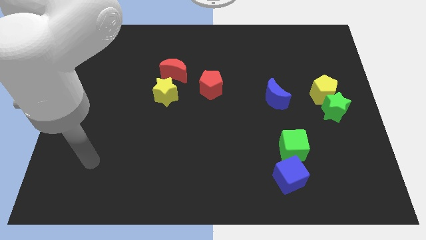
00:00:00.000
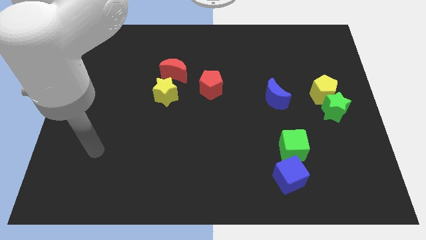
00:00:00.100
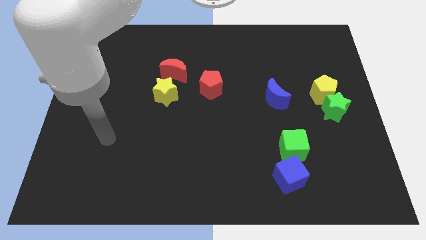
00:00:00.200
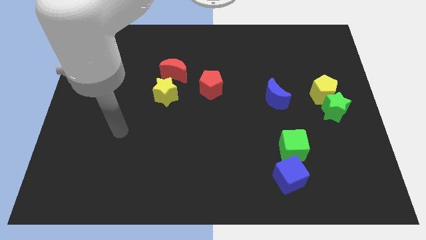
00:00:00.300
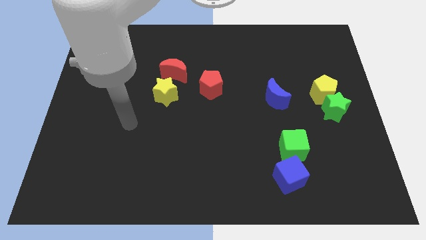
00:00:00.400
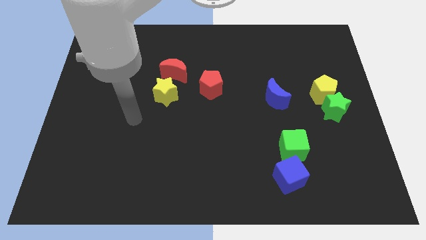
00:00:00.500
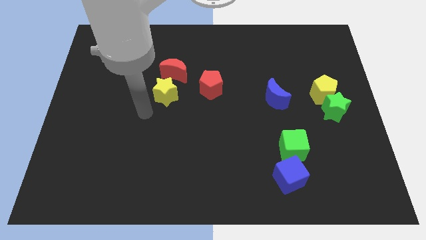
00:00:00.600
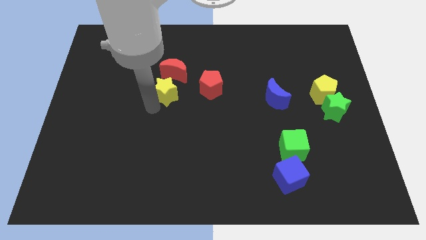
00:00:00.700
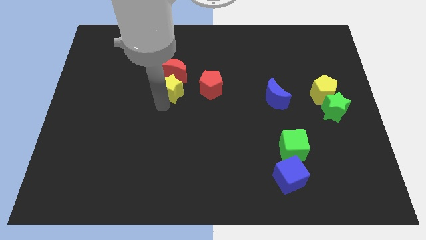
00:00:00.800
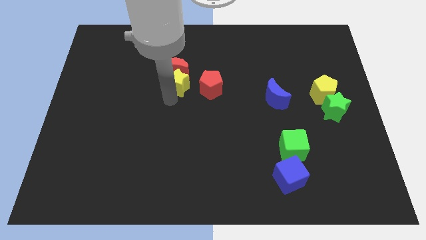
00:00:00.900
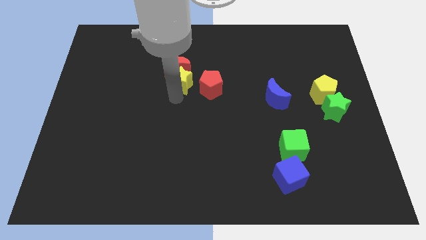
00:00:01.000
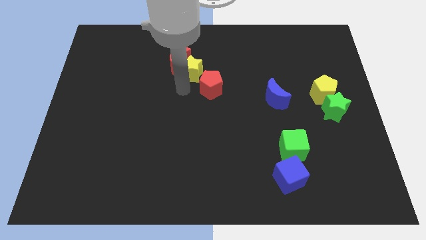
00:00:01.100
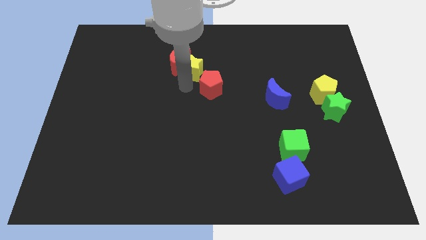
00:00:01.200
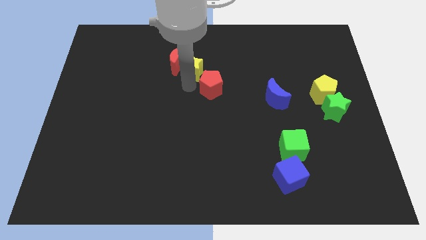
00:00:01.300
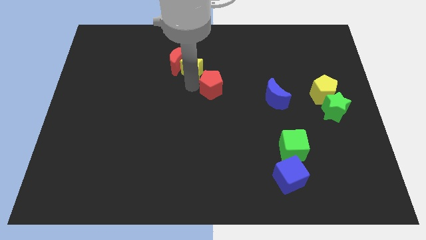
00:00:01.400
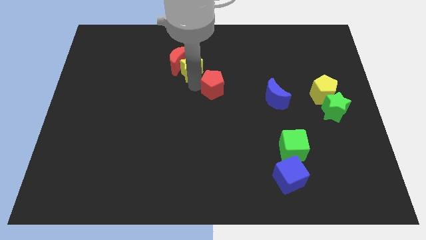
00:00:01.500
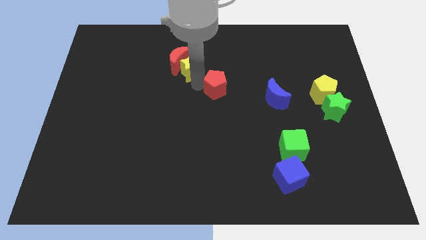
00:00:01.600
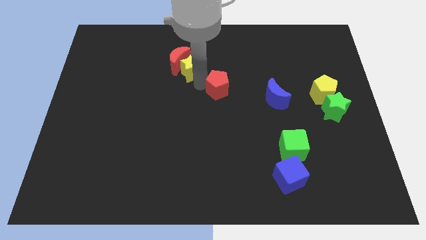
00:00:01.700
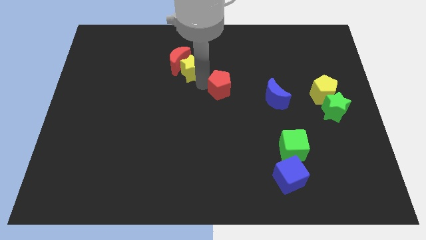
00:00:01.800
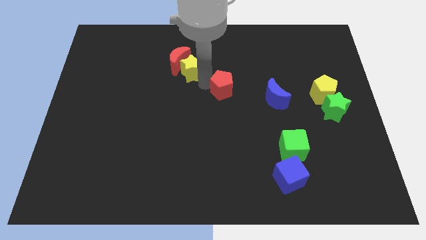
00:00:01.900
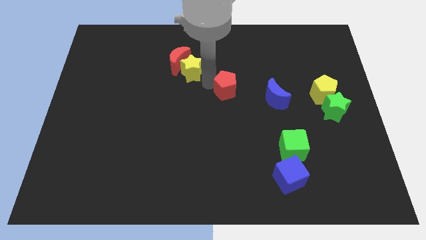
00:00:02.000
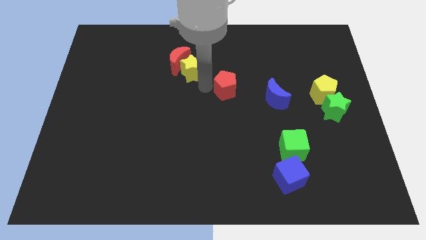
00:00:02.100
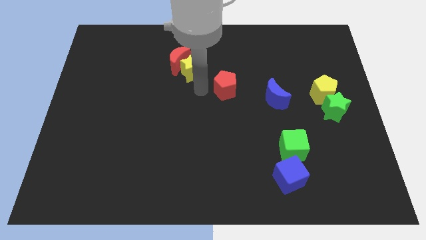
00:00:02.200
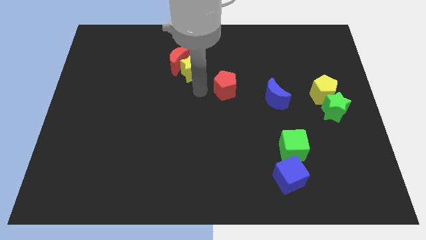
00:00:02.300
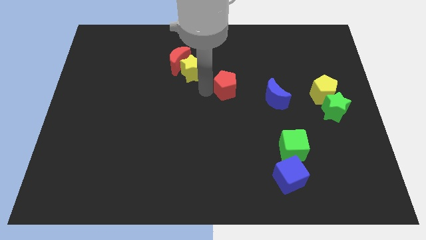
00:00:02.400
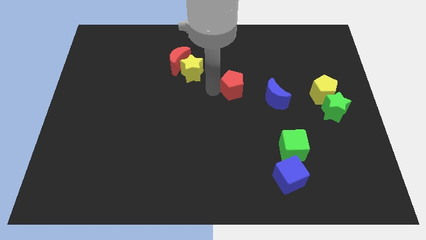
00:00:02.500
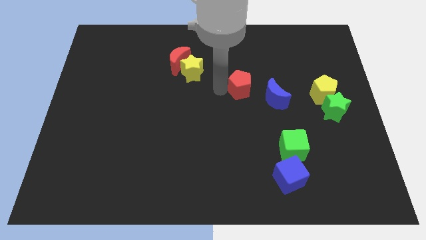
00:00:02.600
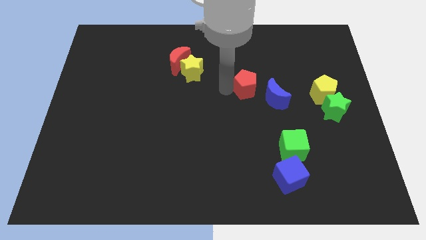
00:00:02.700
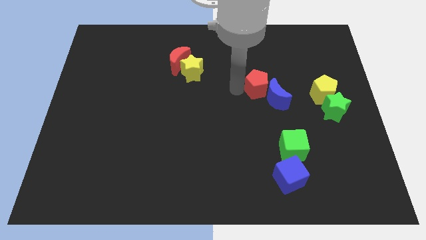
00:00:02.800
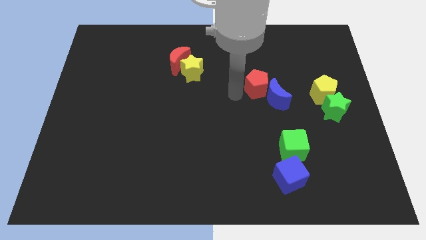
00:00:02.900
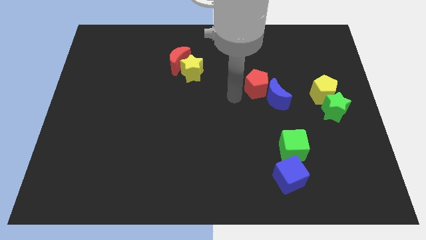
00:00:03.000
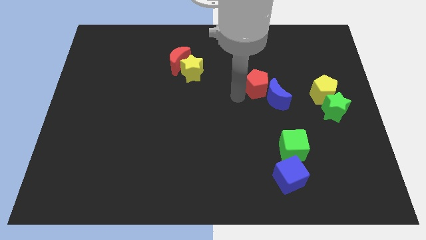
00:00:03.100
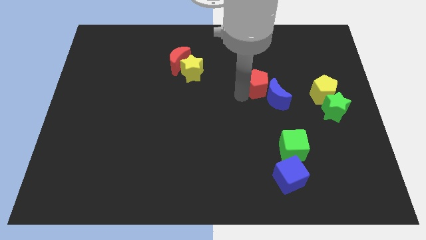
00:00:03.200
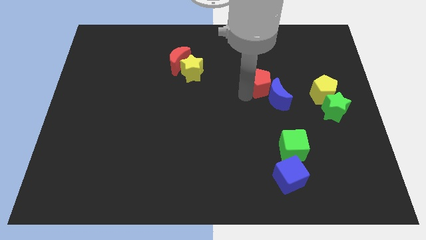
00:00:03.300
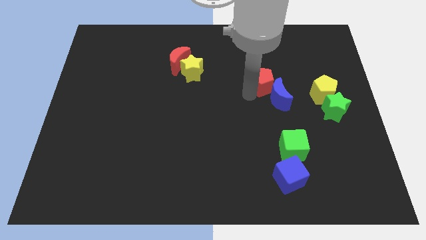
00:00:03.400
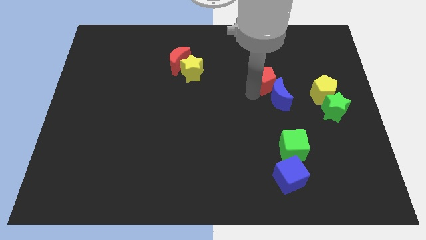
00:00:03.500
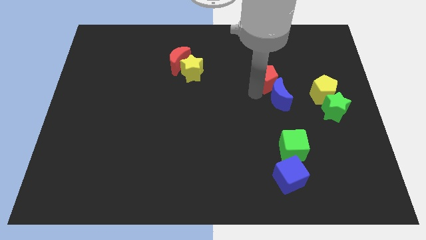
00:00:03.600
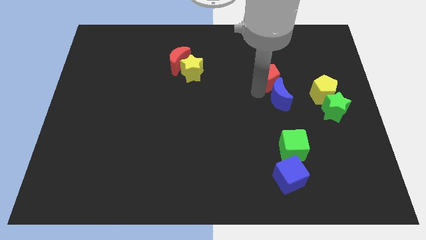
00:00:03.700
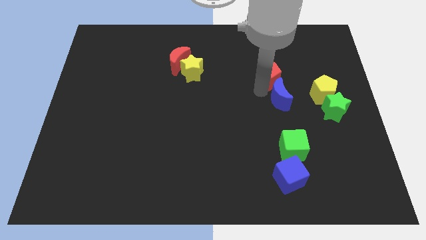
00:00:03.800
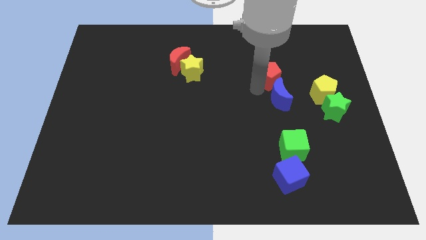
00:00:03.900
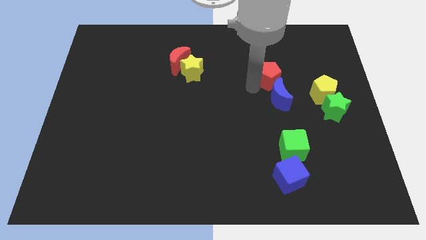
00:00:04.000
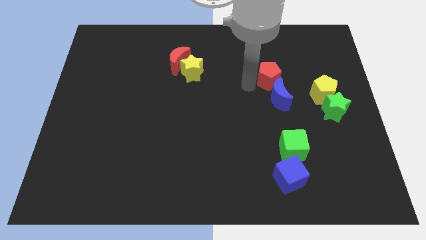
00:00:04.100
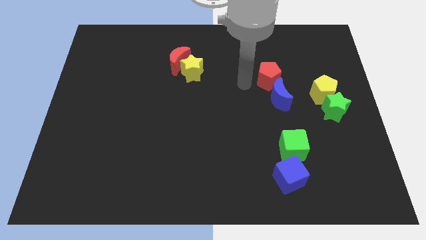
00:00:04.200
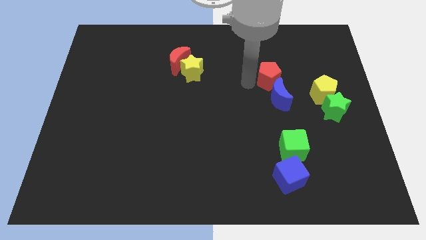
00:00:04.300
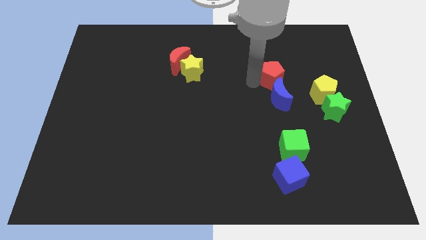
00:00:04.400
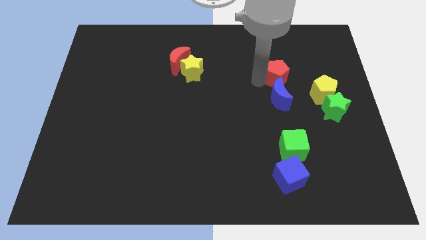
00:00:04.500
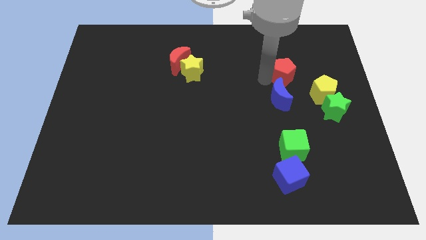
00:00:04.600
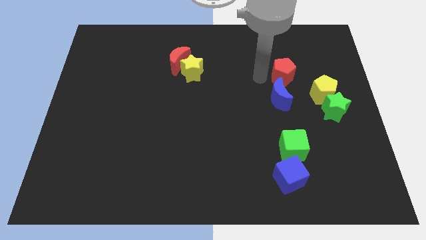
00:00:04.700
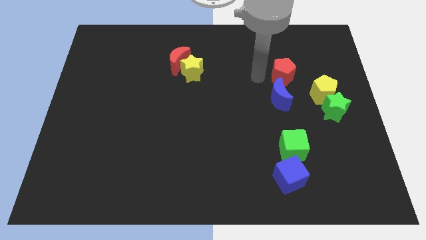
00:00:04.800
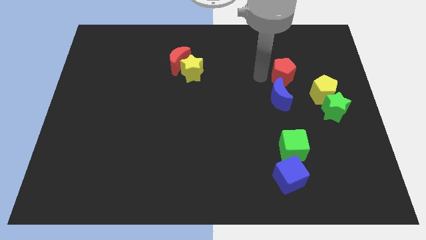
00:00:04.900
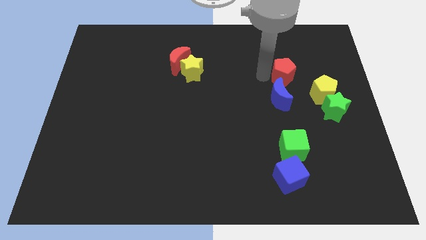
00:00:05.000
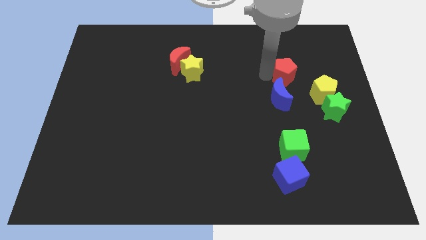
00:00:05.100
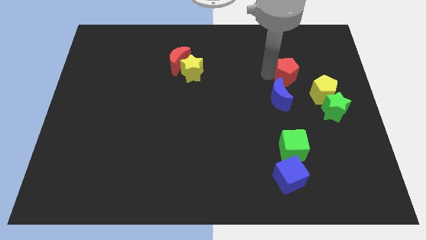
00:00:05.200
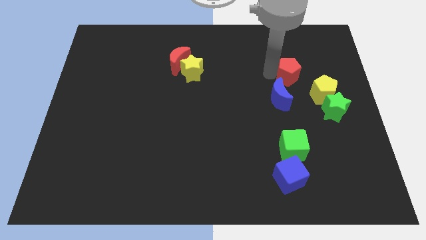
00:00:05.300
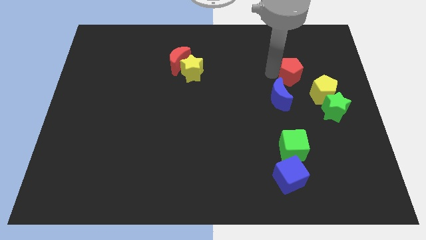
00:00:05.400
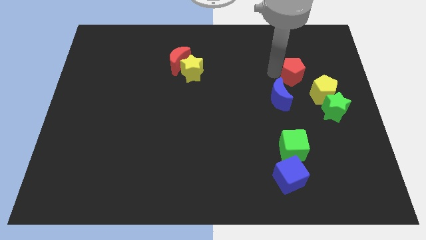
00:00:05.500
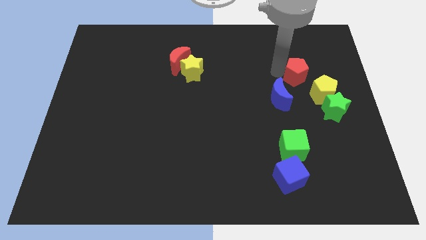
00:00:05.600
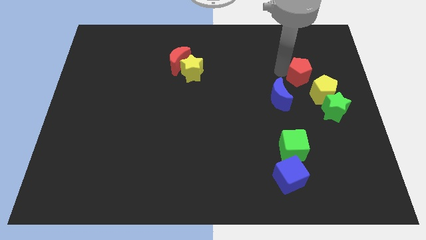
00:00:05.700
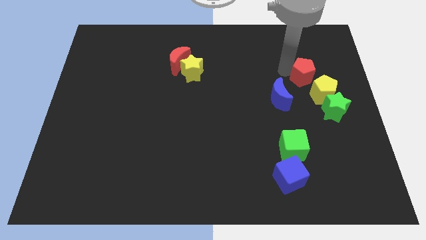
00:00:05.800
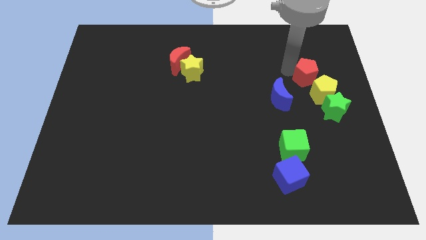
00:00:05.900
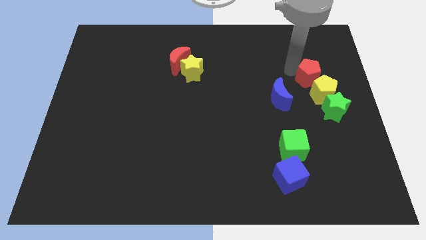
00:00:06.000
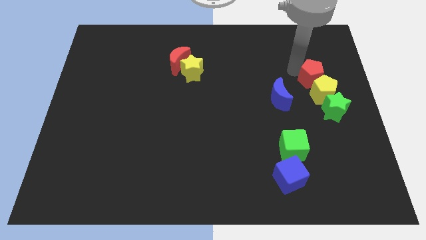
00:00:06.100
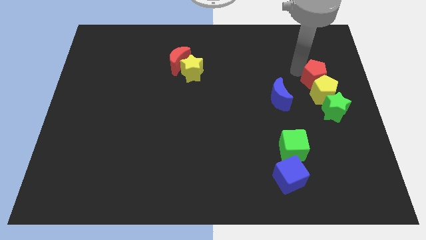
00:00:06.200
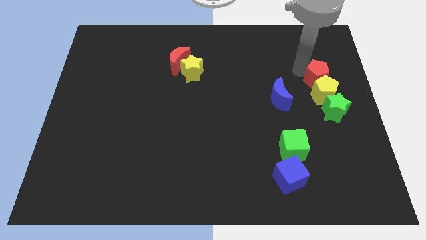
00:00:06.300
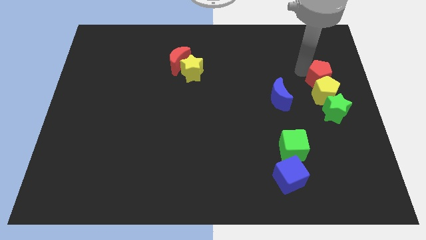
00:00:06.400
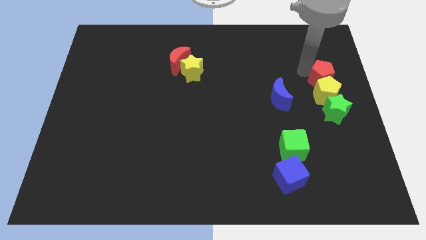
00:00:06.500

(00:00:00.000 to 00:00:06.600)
slide the red pentagon to the right side

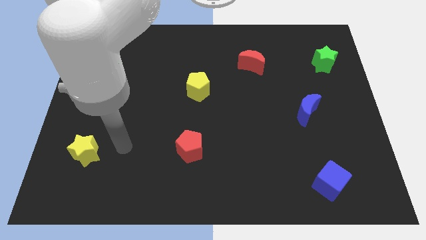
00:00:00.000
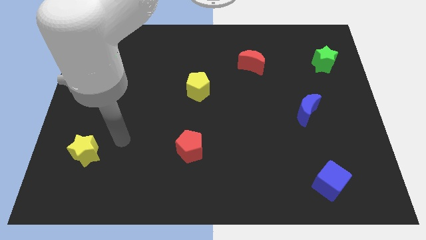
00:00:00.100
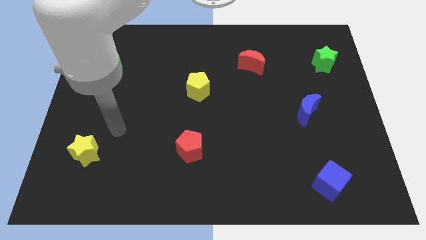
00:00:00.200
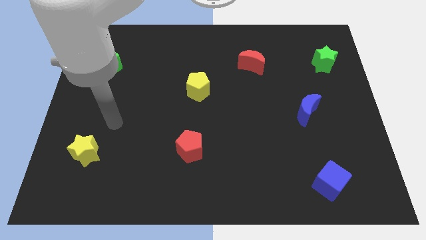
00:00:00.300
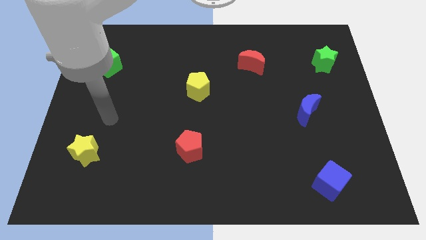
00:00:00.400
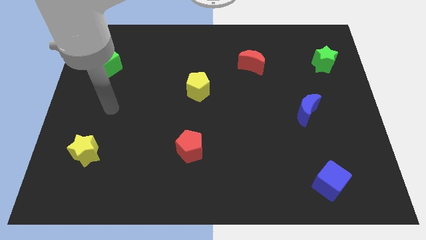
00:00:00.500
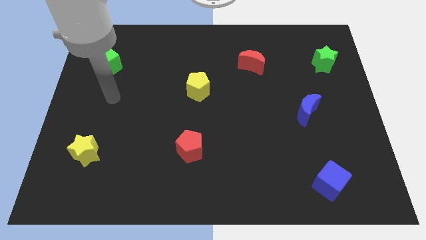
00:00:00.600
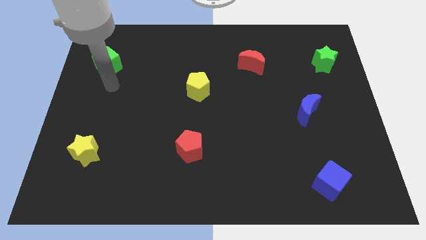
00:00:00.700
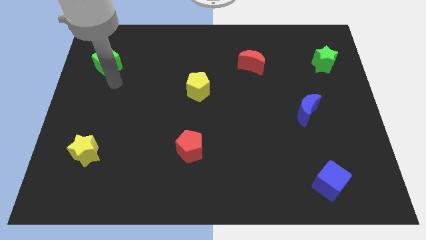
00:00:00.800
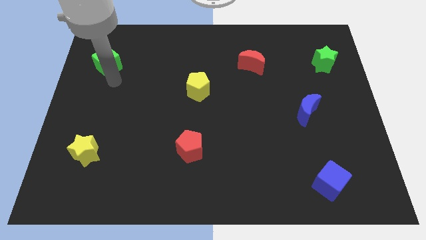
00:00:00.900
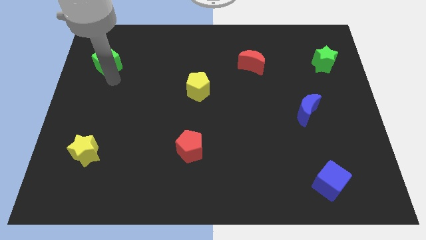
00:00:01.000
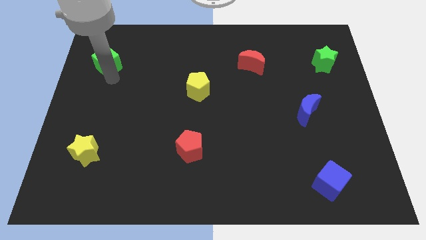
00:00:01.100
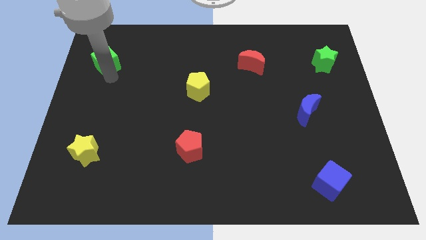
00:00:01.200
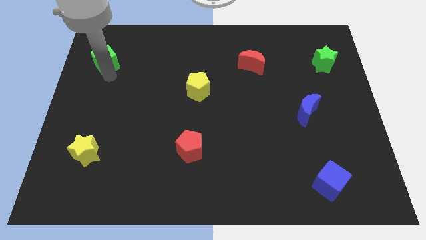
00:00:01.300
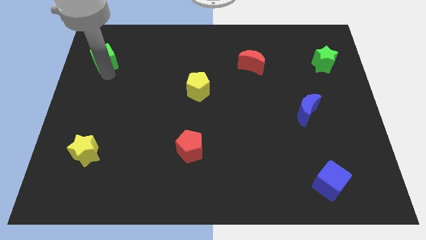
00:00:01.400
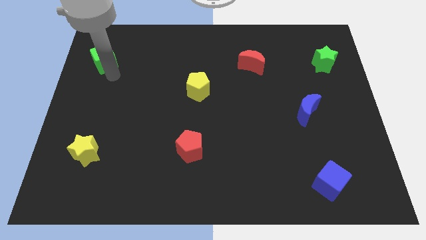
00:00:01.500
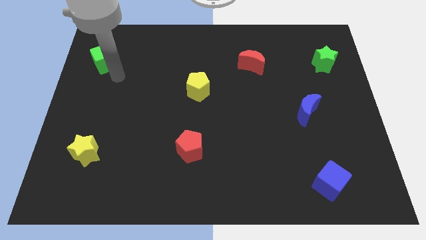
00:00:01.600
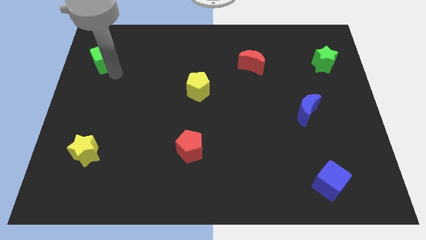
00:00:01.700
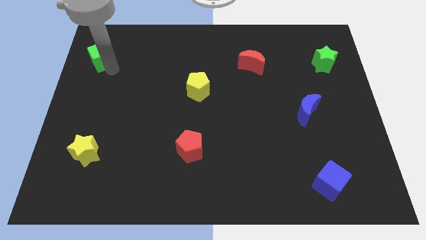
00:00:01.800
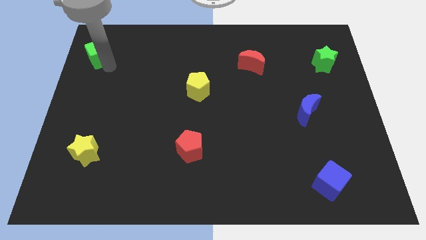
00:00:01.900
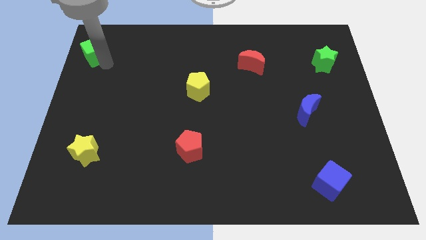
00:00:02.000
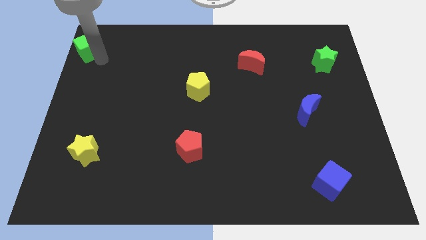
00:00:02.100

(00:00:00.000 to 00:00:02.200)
move the green cube to the top left of the board
